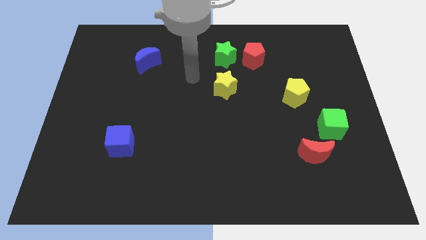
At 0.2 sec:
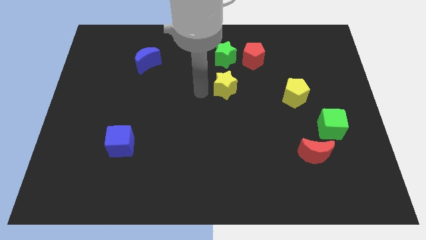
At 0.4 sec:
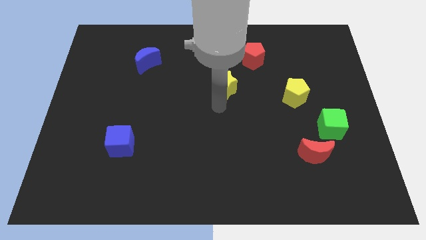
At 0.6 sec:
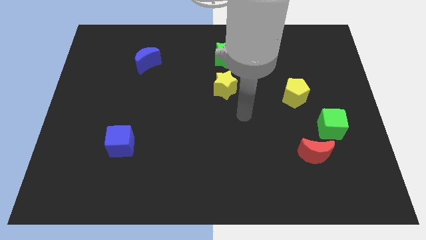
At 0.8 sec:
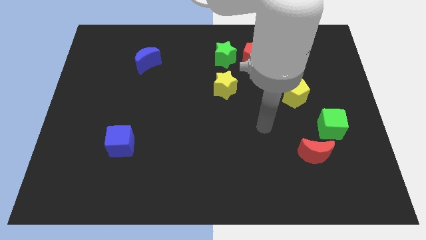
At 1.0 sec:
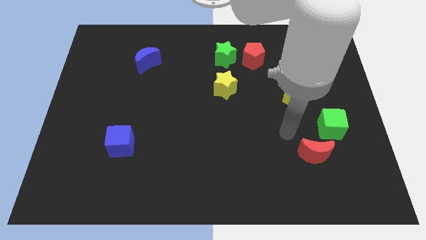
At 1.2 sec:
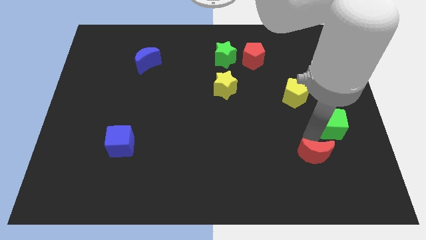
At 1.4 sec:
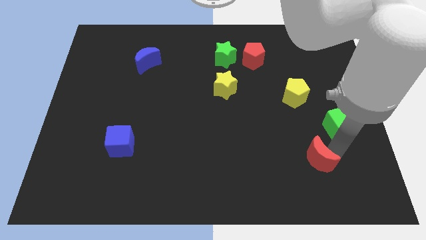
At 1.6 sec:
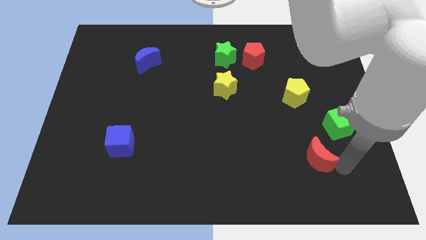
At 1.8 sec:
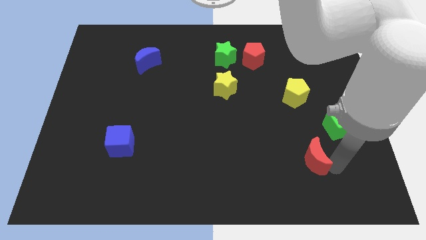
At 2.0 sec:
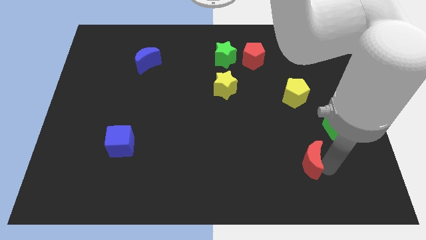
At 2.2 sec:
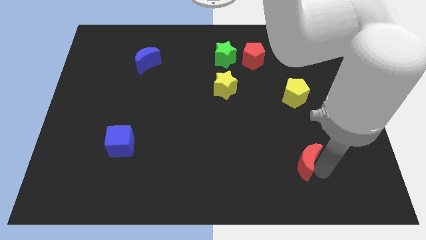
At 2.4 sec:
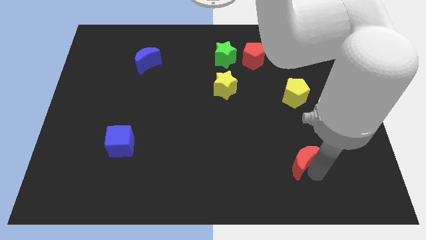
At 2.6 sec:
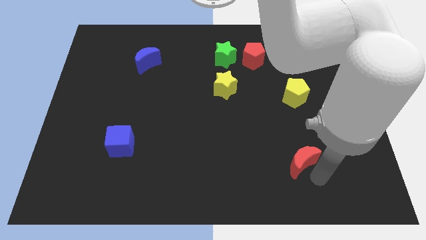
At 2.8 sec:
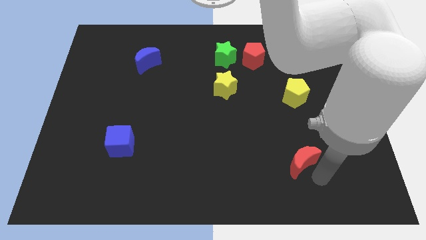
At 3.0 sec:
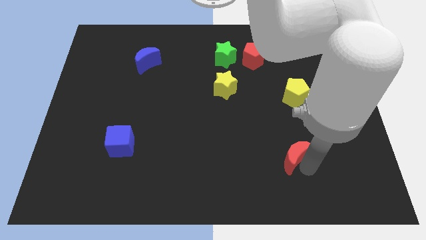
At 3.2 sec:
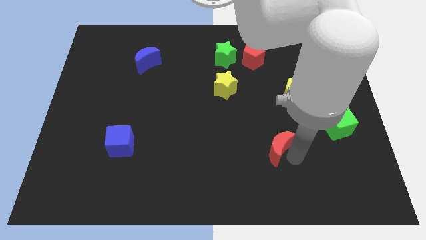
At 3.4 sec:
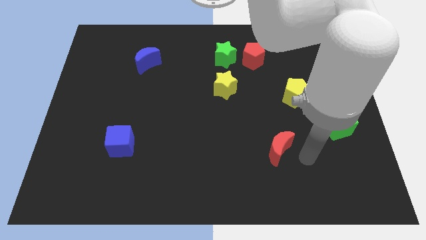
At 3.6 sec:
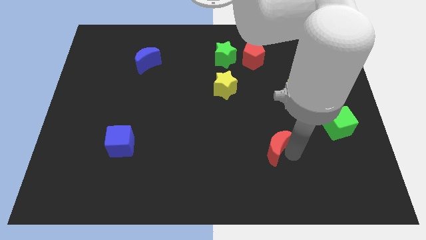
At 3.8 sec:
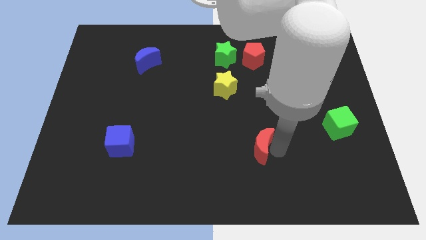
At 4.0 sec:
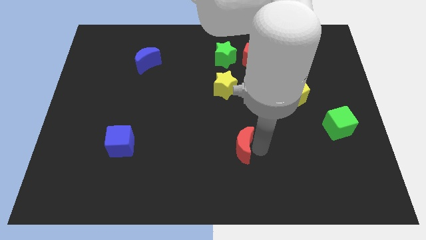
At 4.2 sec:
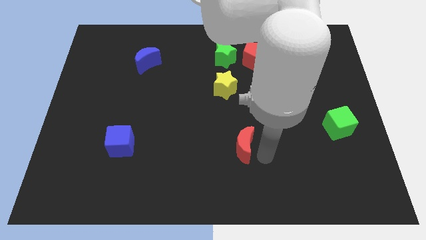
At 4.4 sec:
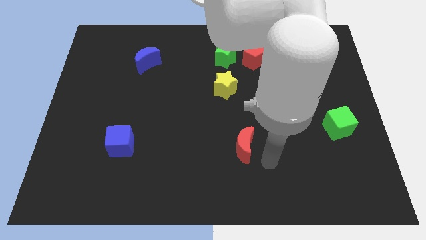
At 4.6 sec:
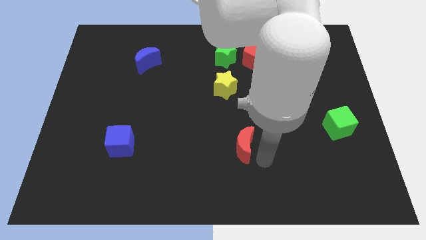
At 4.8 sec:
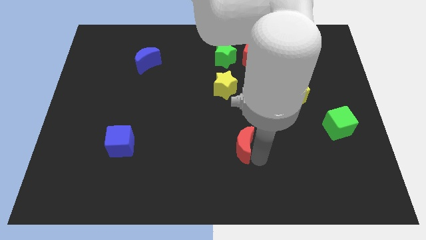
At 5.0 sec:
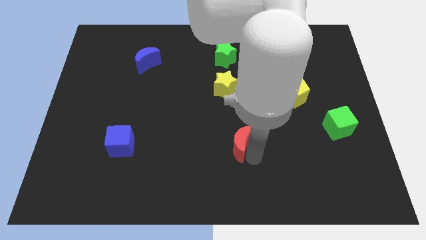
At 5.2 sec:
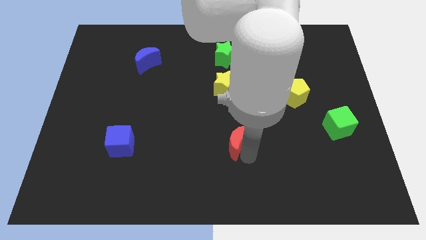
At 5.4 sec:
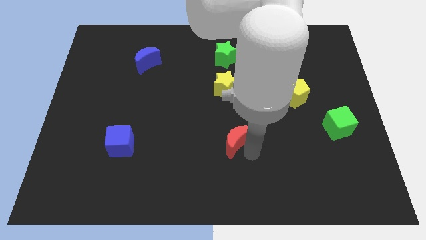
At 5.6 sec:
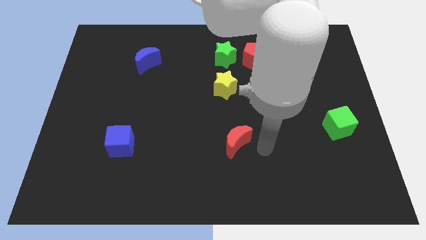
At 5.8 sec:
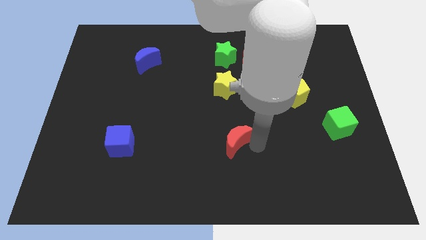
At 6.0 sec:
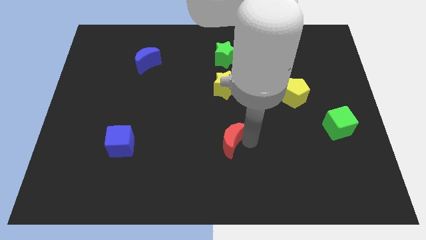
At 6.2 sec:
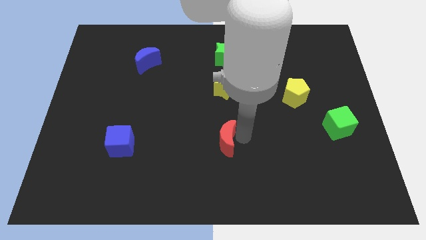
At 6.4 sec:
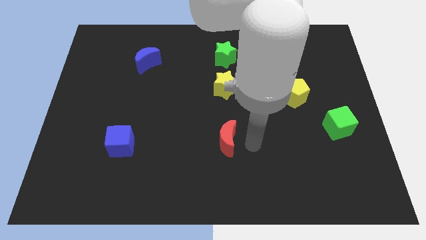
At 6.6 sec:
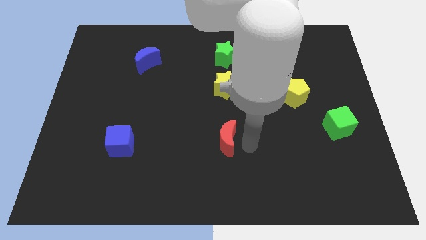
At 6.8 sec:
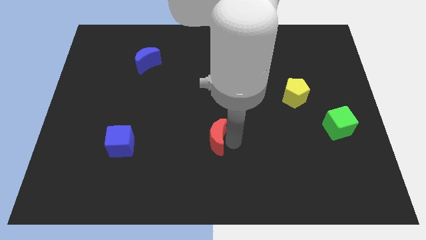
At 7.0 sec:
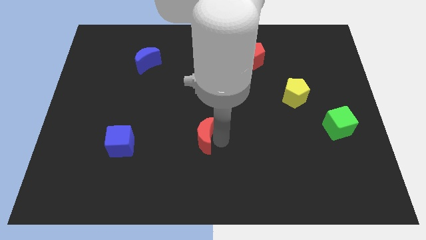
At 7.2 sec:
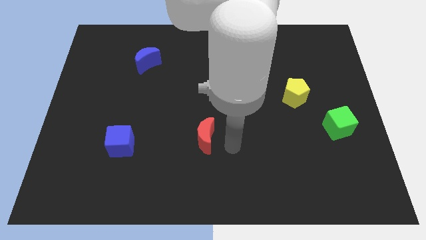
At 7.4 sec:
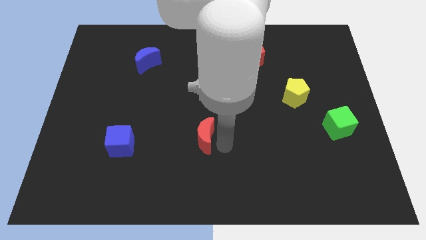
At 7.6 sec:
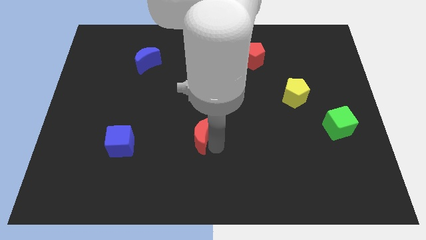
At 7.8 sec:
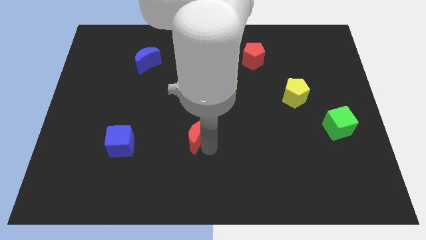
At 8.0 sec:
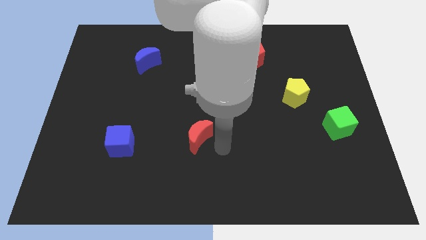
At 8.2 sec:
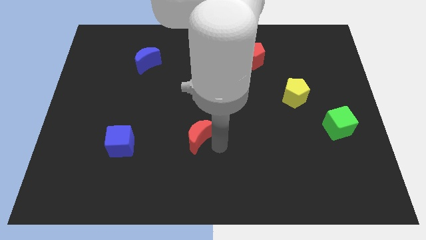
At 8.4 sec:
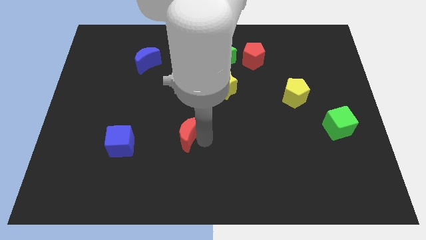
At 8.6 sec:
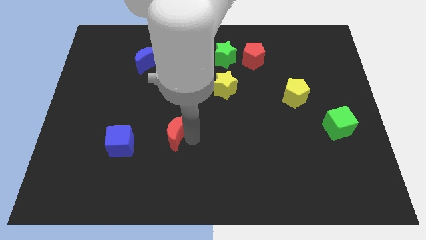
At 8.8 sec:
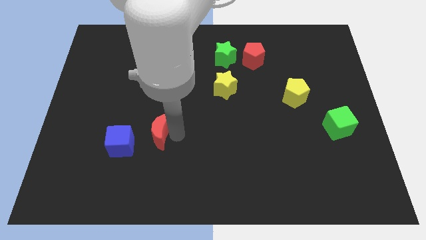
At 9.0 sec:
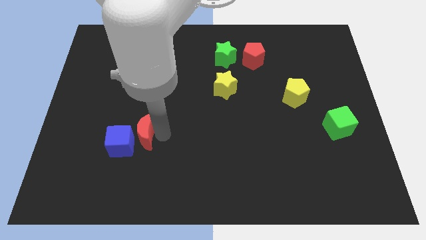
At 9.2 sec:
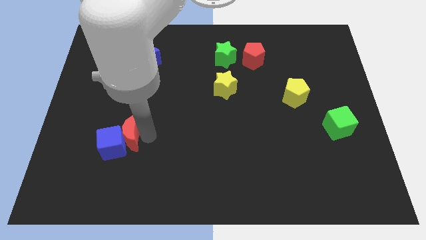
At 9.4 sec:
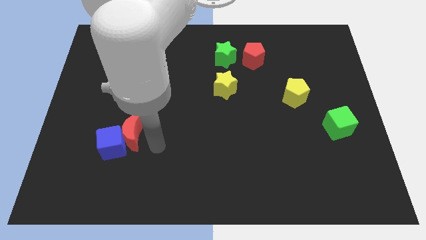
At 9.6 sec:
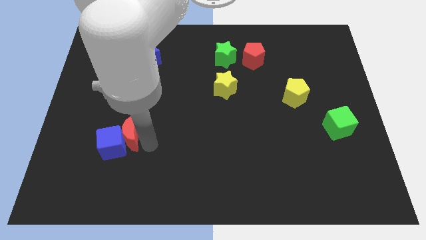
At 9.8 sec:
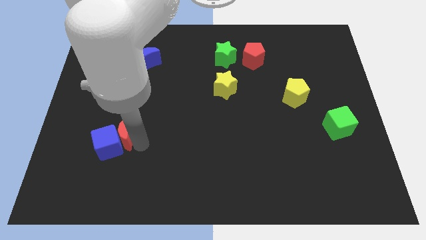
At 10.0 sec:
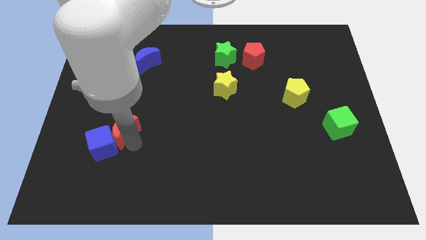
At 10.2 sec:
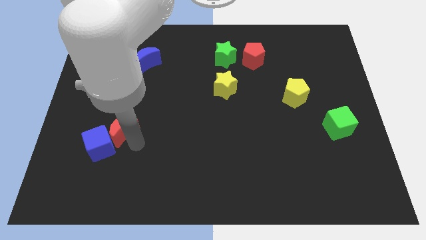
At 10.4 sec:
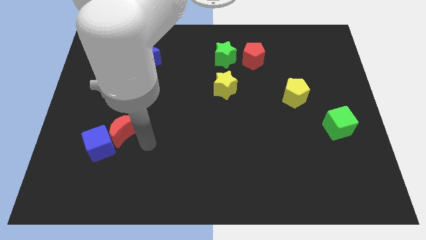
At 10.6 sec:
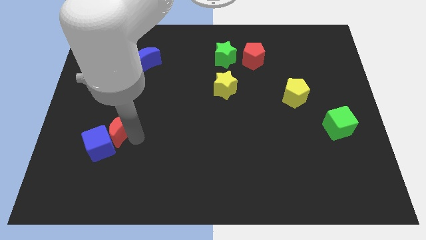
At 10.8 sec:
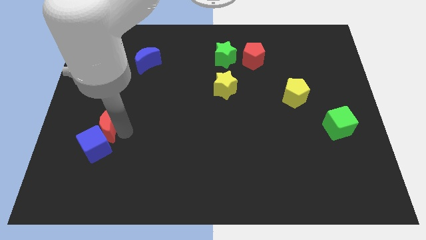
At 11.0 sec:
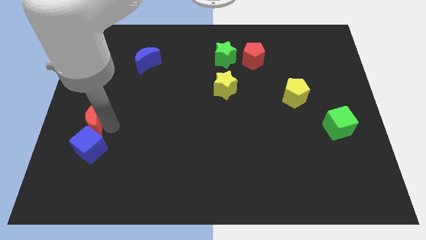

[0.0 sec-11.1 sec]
put the red moon to the left side of the board

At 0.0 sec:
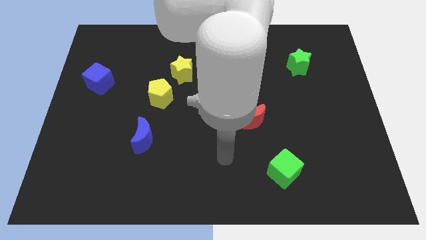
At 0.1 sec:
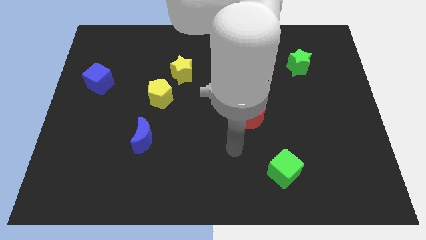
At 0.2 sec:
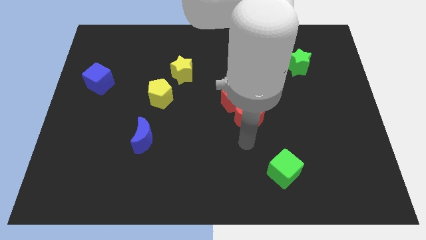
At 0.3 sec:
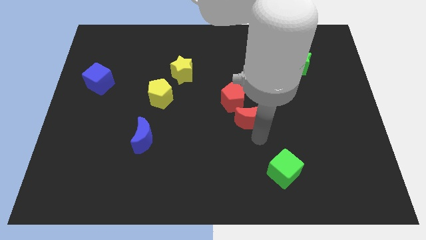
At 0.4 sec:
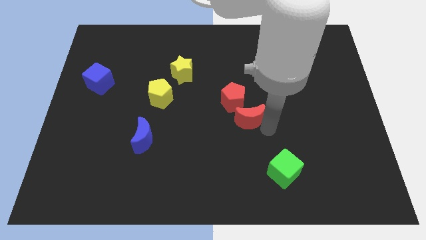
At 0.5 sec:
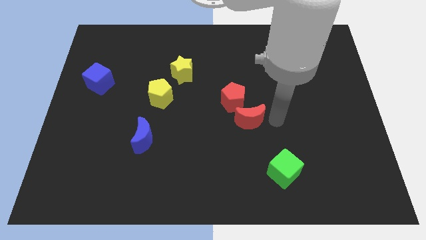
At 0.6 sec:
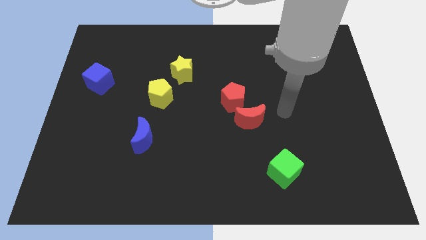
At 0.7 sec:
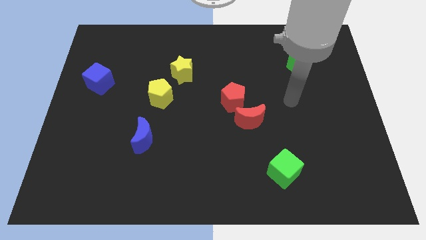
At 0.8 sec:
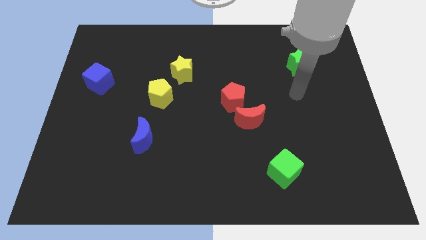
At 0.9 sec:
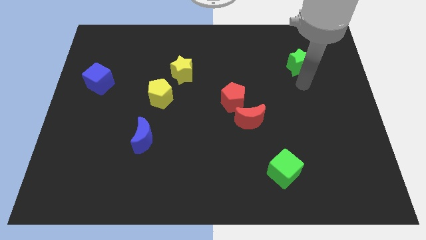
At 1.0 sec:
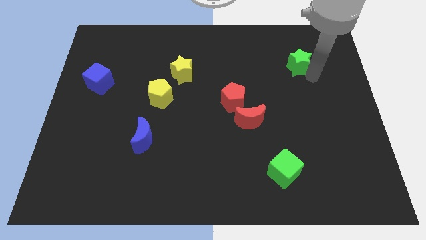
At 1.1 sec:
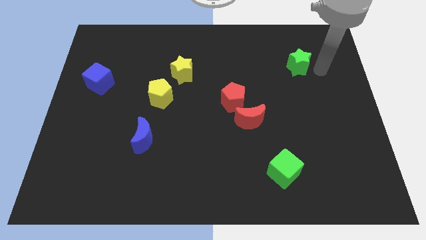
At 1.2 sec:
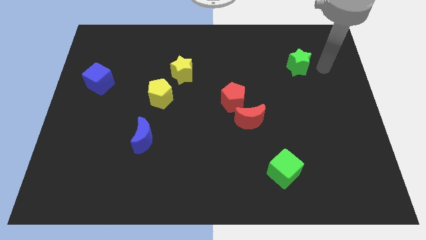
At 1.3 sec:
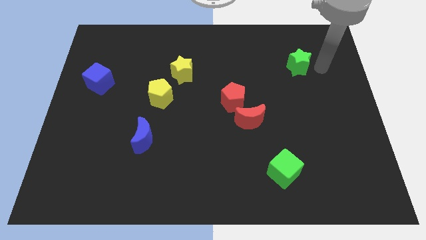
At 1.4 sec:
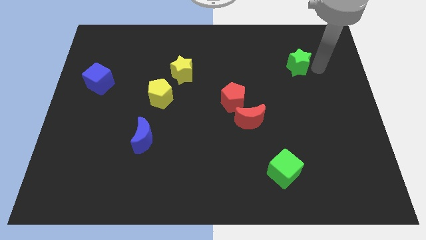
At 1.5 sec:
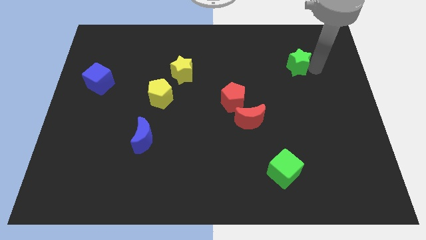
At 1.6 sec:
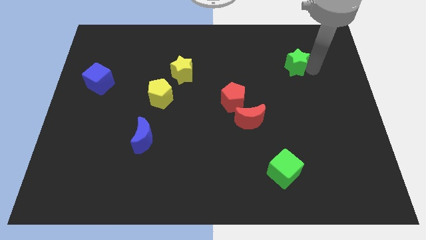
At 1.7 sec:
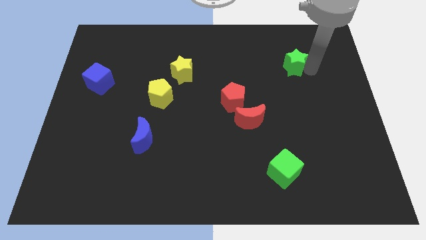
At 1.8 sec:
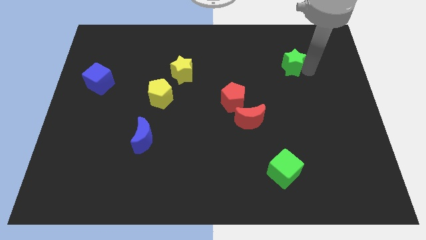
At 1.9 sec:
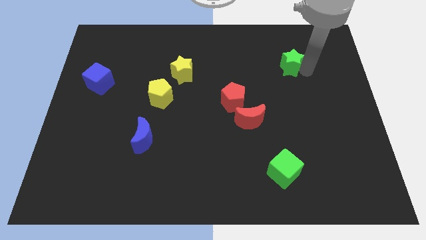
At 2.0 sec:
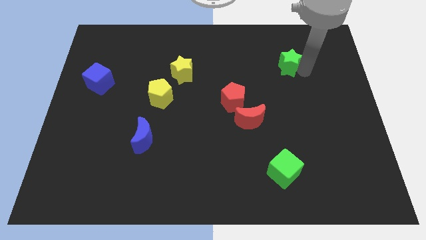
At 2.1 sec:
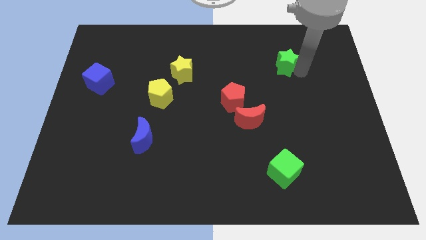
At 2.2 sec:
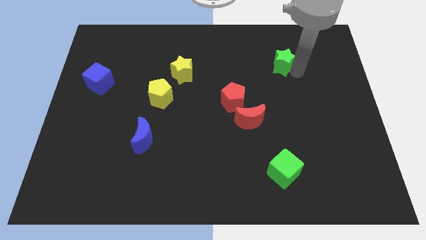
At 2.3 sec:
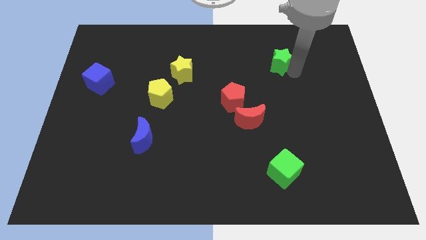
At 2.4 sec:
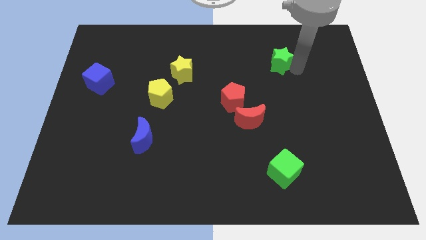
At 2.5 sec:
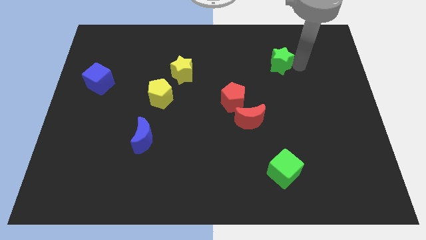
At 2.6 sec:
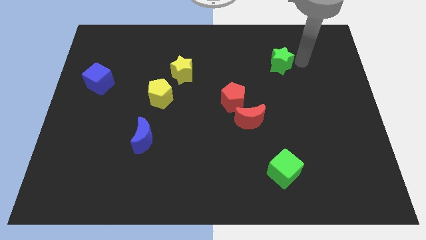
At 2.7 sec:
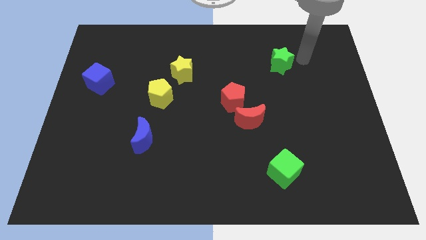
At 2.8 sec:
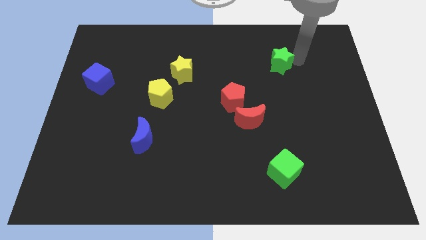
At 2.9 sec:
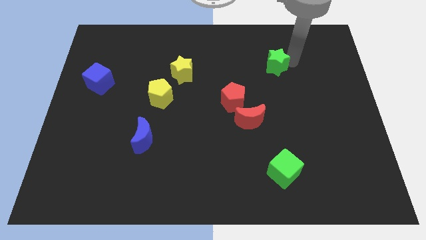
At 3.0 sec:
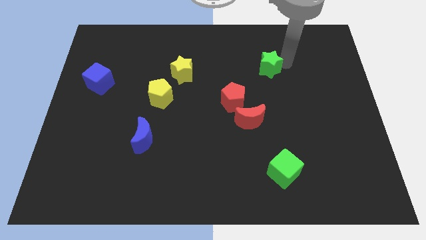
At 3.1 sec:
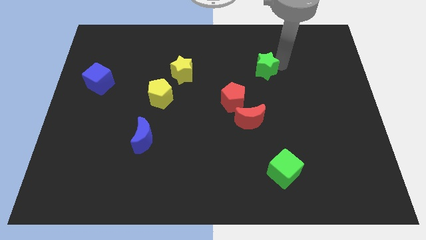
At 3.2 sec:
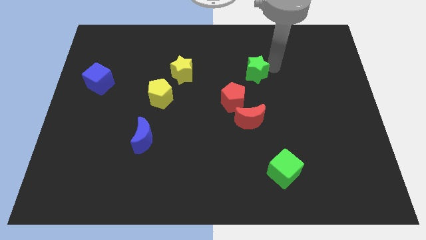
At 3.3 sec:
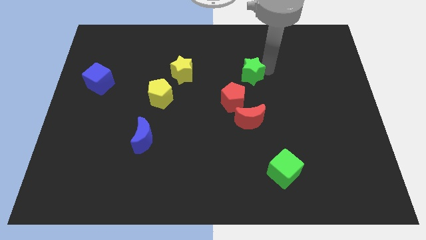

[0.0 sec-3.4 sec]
put the green star to the middle
